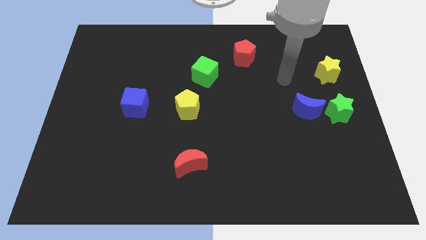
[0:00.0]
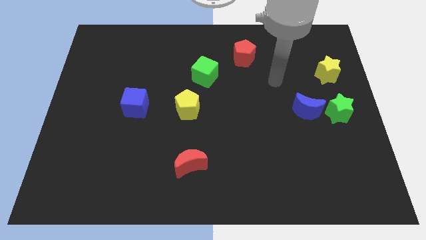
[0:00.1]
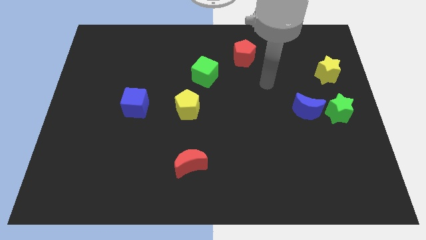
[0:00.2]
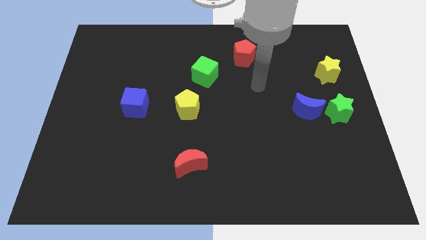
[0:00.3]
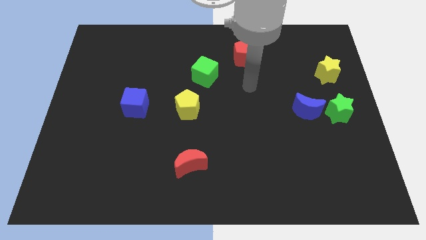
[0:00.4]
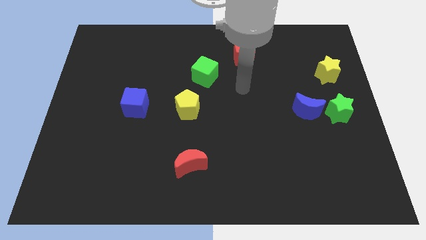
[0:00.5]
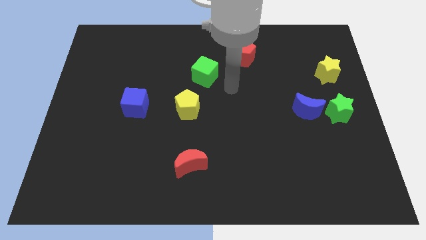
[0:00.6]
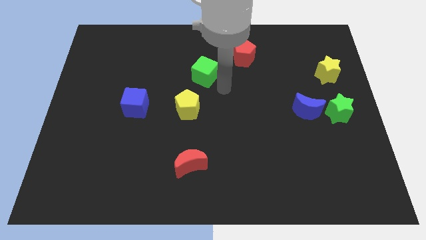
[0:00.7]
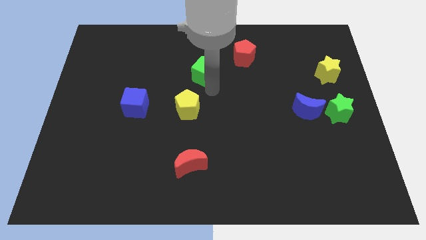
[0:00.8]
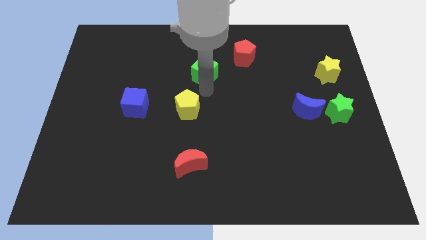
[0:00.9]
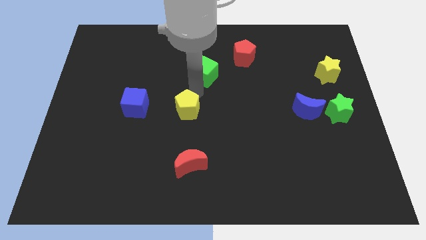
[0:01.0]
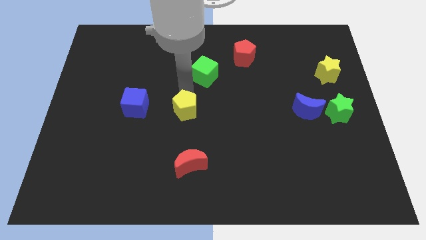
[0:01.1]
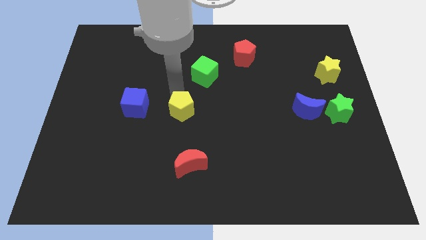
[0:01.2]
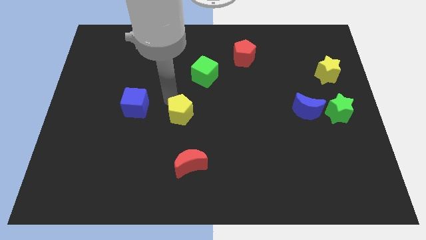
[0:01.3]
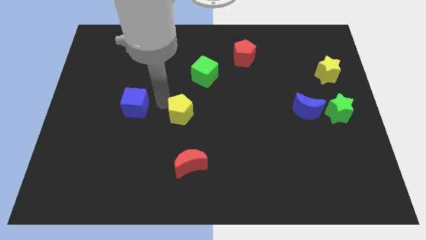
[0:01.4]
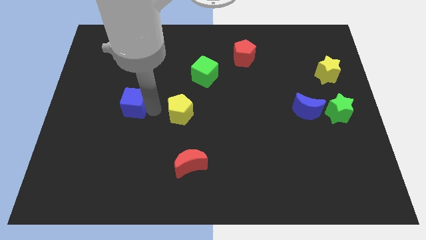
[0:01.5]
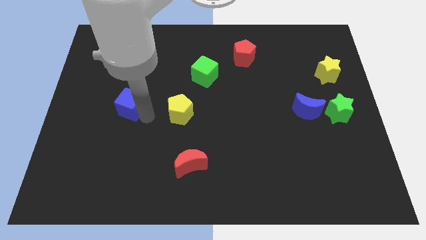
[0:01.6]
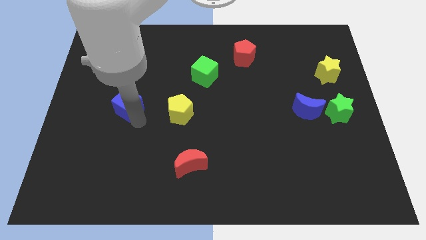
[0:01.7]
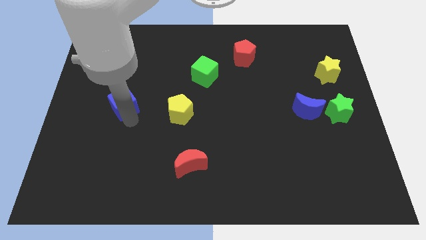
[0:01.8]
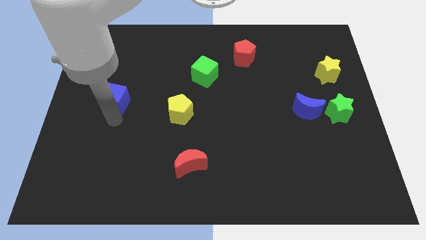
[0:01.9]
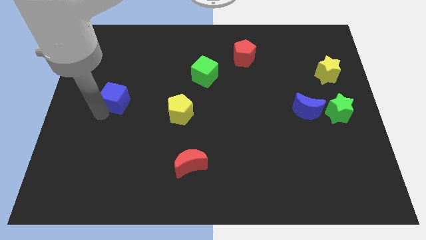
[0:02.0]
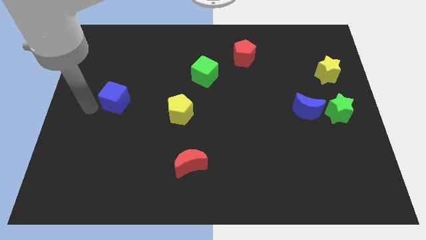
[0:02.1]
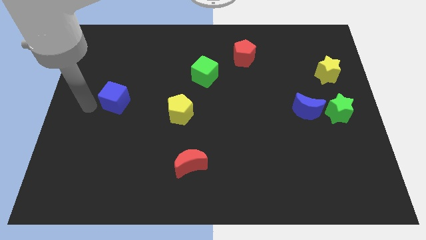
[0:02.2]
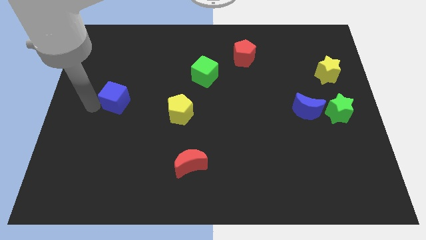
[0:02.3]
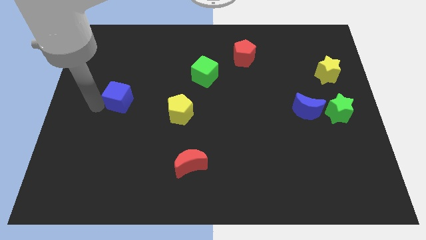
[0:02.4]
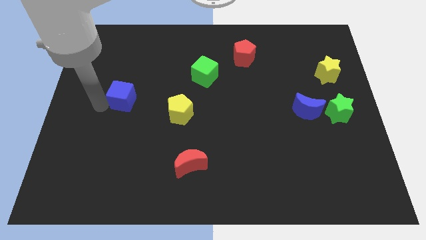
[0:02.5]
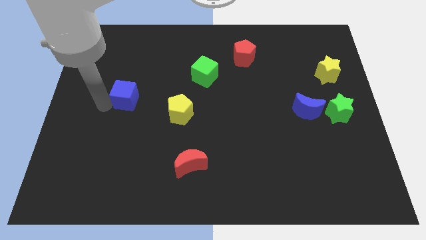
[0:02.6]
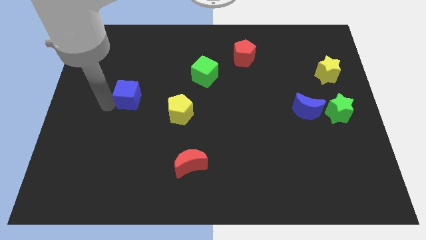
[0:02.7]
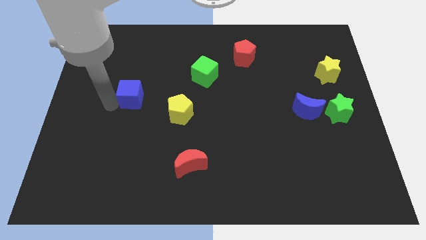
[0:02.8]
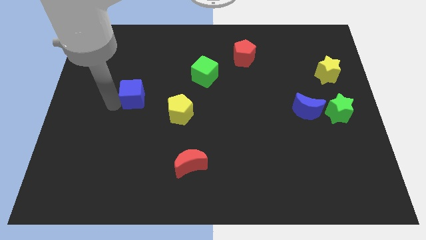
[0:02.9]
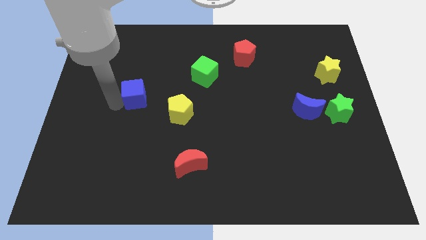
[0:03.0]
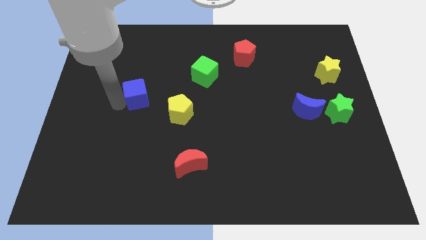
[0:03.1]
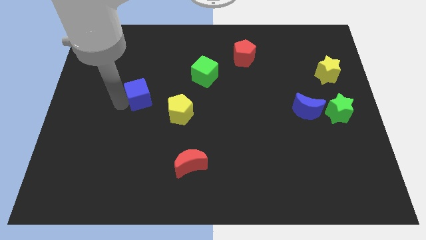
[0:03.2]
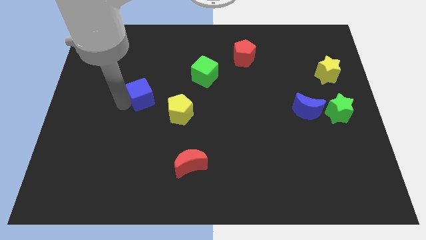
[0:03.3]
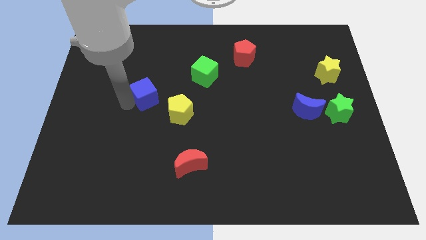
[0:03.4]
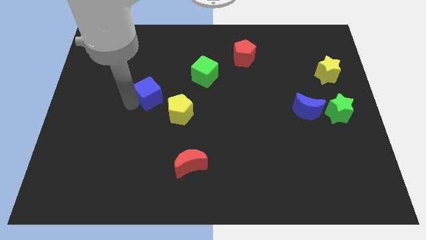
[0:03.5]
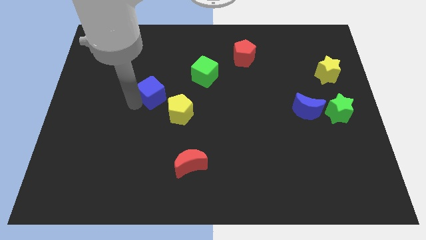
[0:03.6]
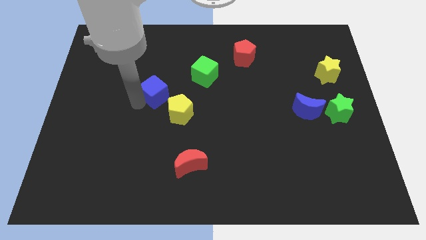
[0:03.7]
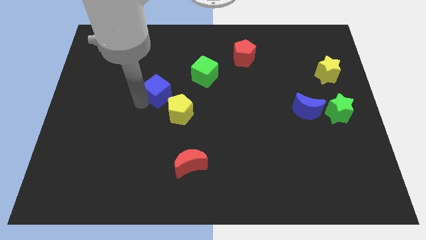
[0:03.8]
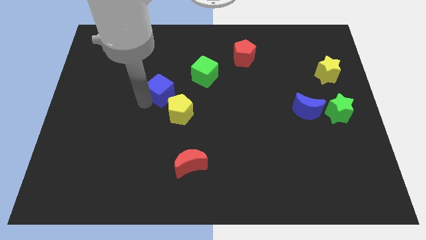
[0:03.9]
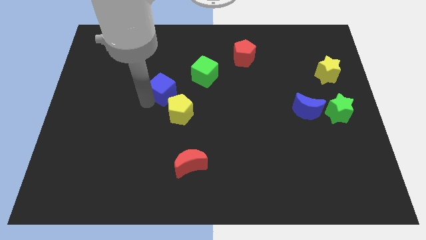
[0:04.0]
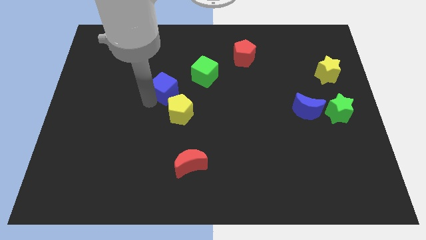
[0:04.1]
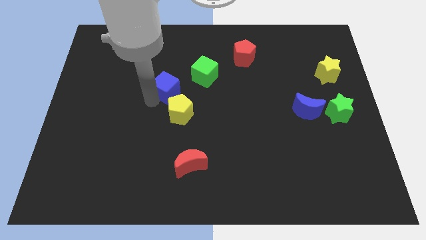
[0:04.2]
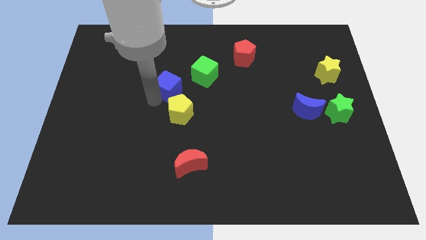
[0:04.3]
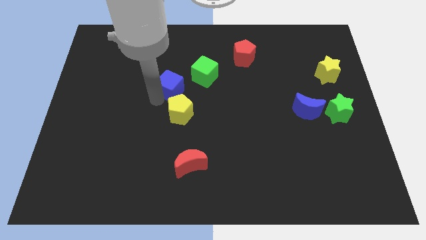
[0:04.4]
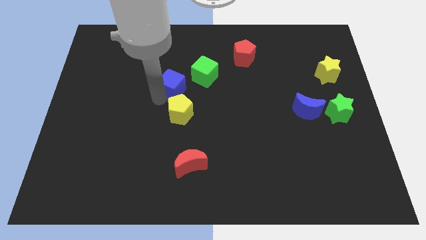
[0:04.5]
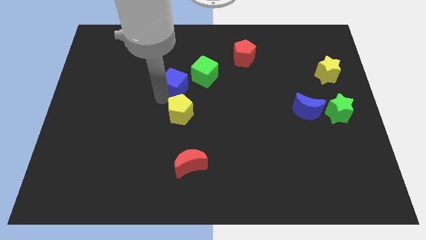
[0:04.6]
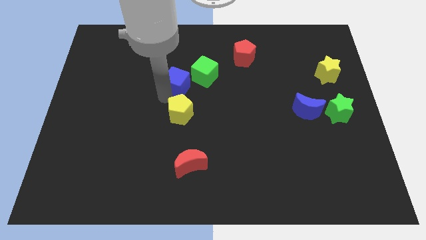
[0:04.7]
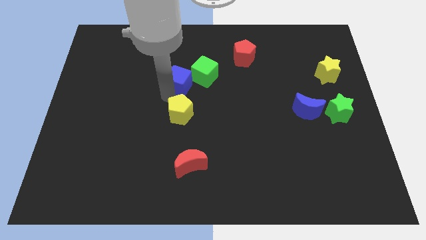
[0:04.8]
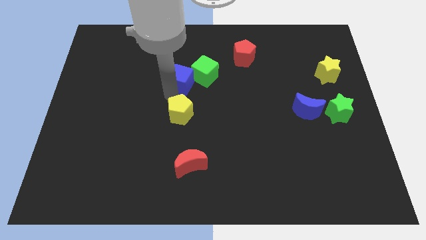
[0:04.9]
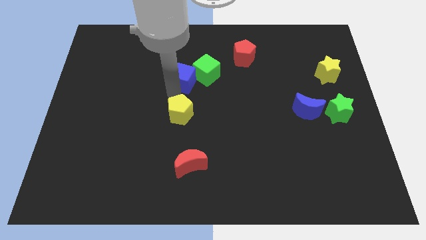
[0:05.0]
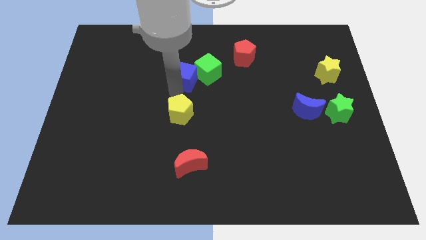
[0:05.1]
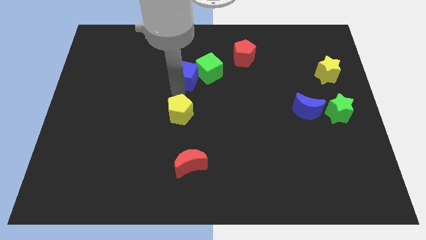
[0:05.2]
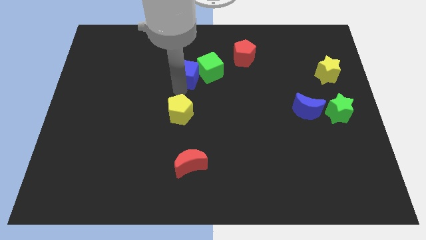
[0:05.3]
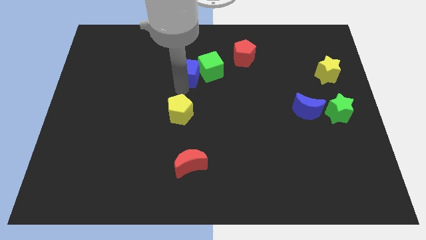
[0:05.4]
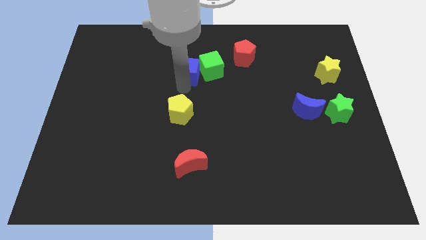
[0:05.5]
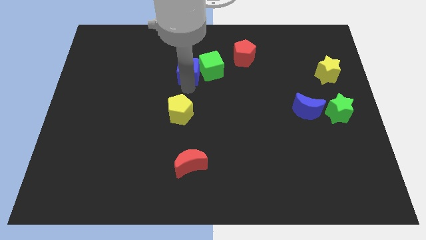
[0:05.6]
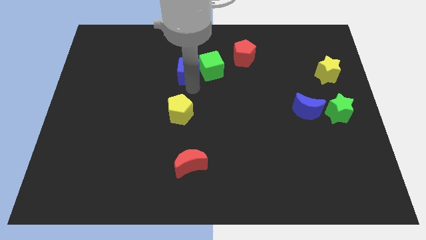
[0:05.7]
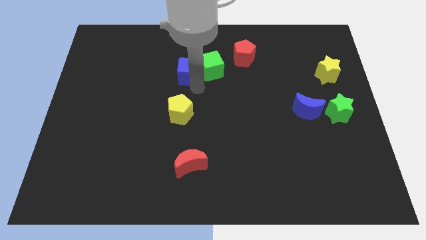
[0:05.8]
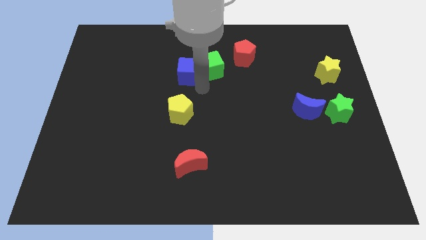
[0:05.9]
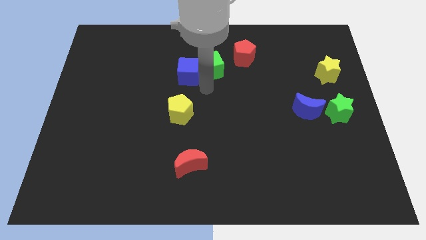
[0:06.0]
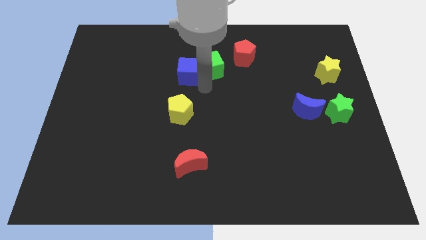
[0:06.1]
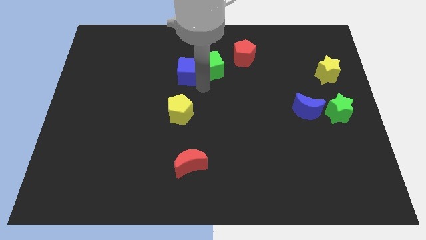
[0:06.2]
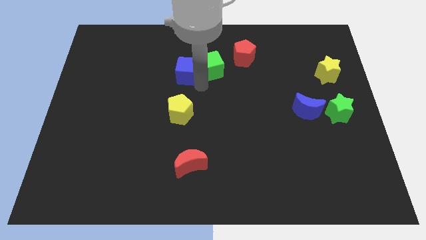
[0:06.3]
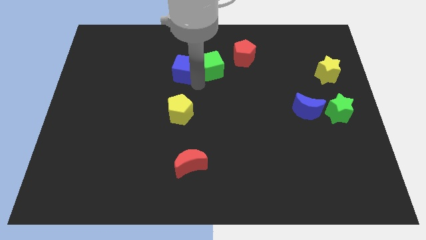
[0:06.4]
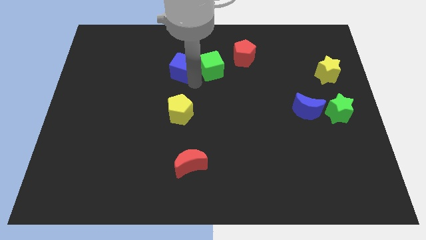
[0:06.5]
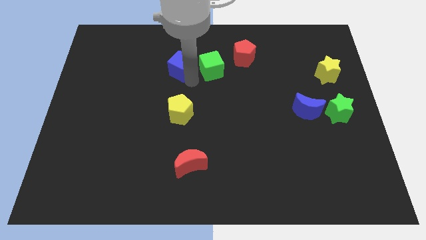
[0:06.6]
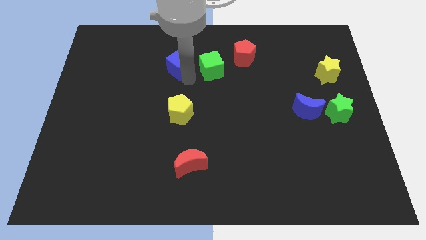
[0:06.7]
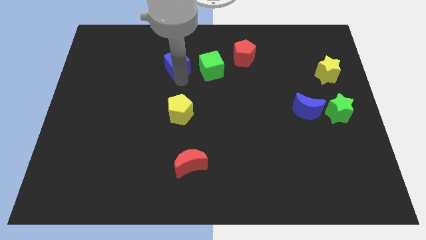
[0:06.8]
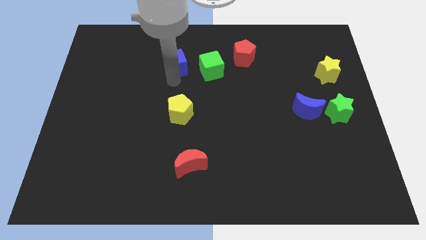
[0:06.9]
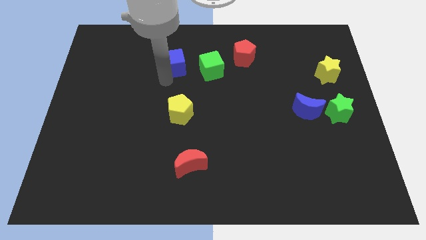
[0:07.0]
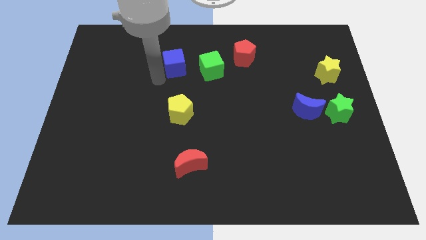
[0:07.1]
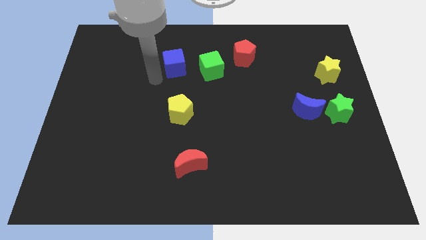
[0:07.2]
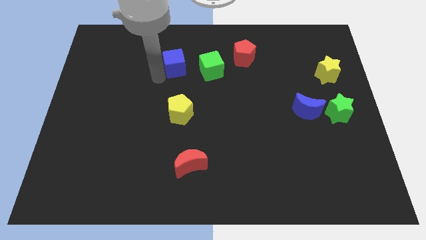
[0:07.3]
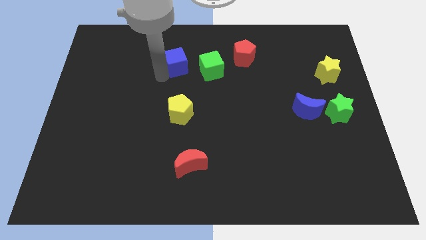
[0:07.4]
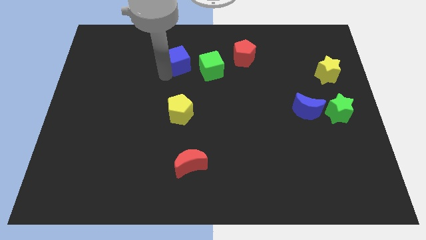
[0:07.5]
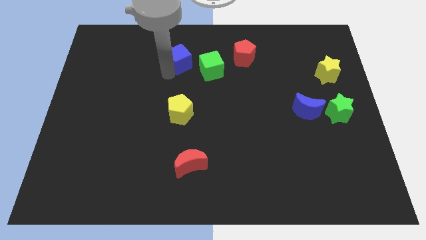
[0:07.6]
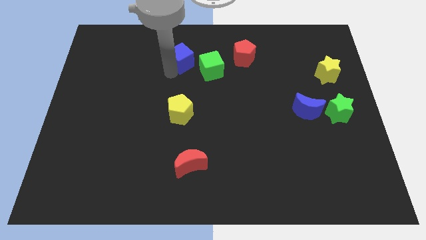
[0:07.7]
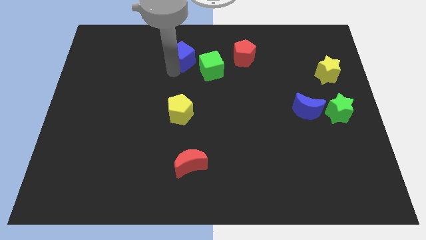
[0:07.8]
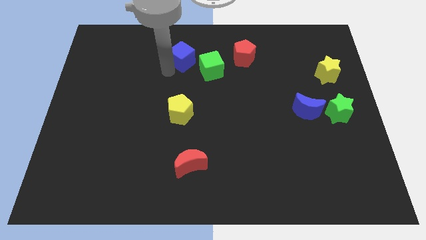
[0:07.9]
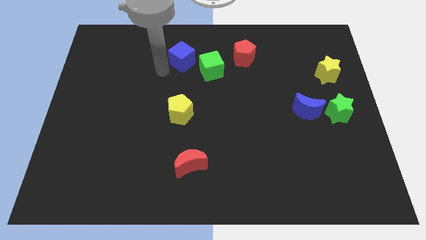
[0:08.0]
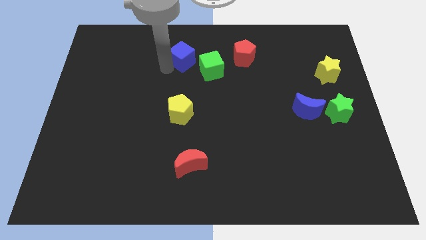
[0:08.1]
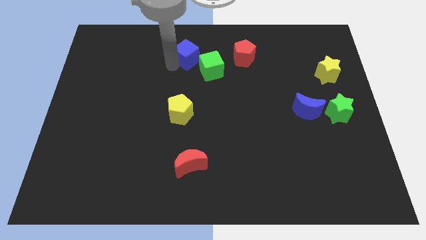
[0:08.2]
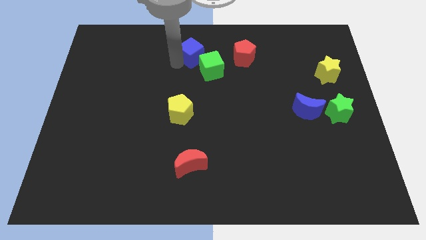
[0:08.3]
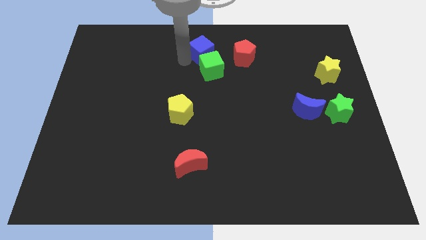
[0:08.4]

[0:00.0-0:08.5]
push the blue cube to the towards your base
